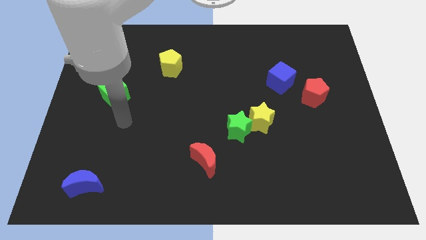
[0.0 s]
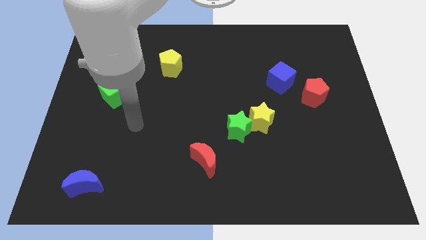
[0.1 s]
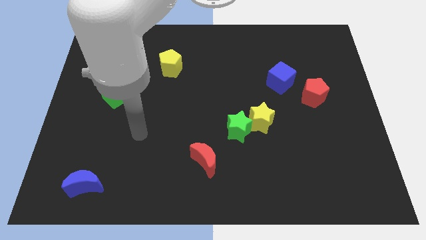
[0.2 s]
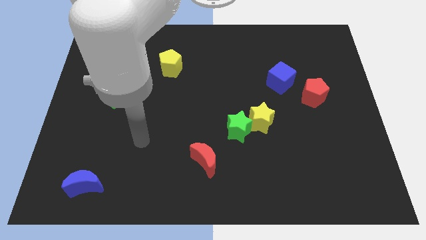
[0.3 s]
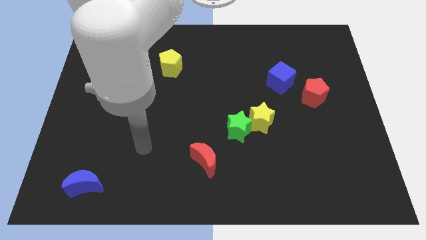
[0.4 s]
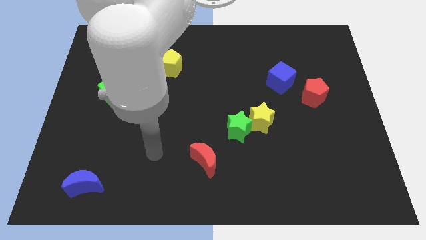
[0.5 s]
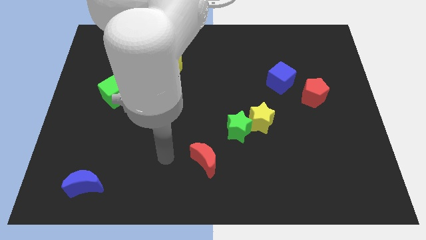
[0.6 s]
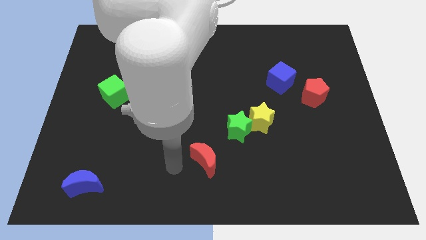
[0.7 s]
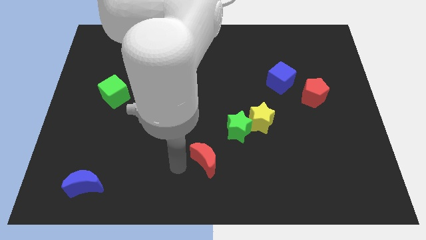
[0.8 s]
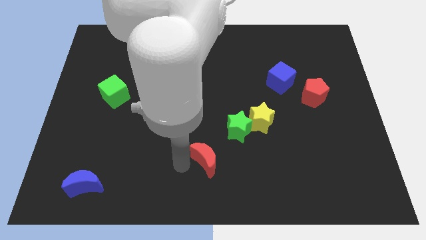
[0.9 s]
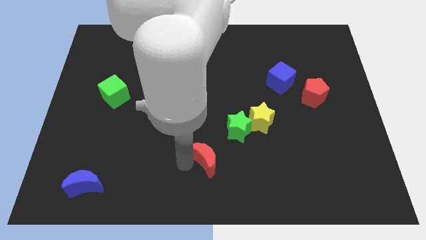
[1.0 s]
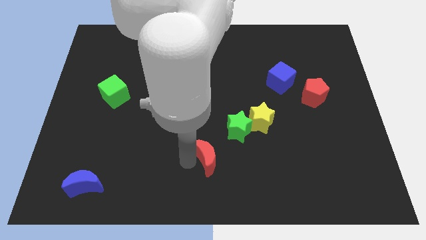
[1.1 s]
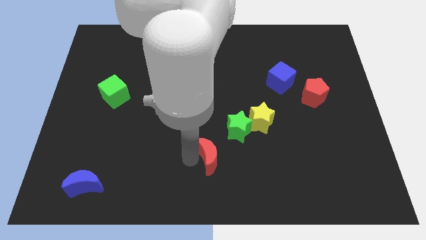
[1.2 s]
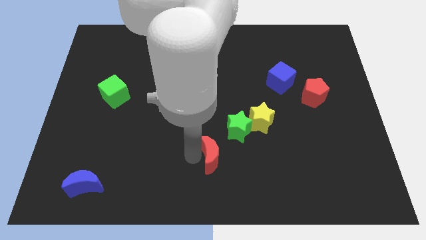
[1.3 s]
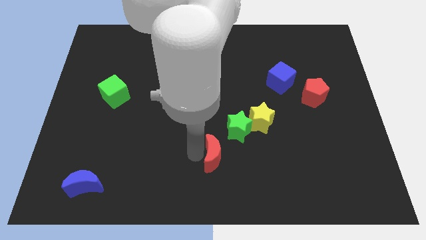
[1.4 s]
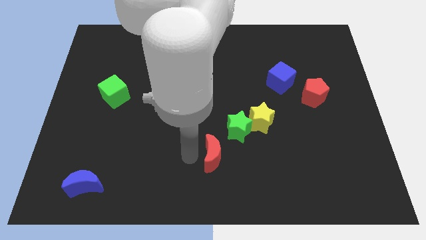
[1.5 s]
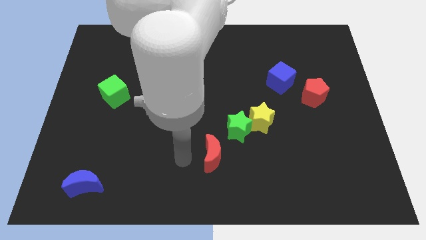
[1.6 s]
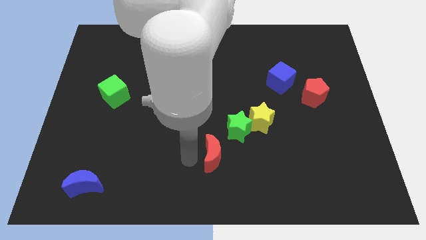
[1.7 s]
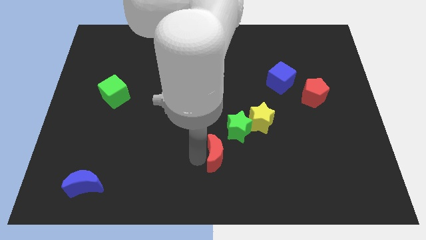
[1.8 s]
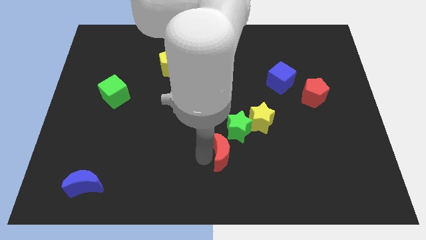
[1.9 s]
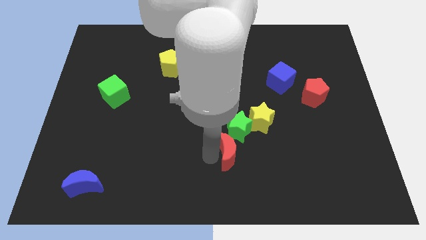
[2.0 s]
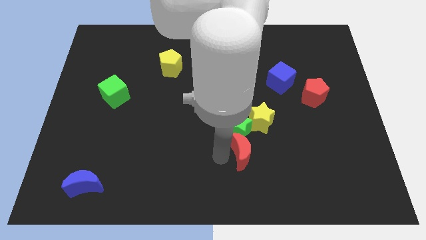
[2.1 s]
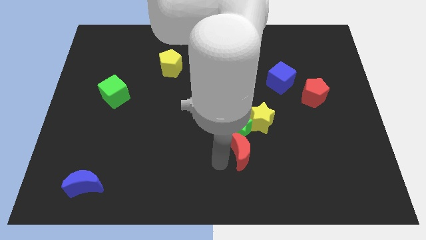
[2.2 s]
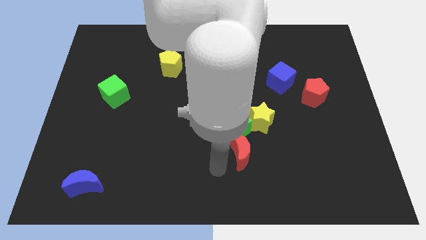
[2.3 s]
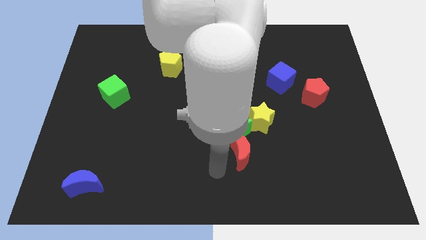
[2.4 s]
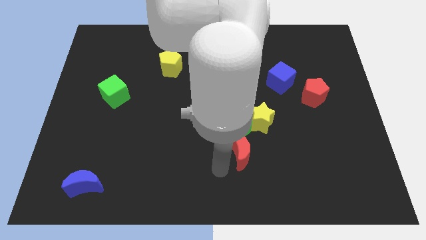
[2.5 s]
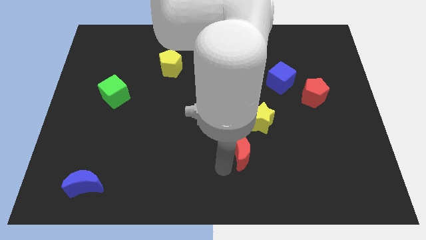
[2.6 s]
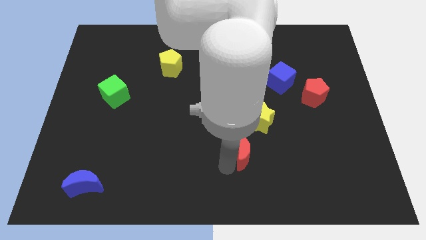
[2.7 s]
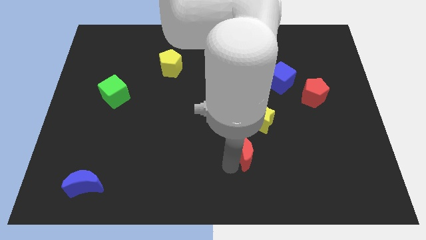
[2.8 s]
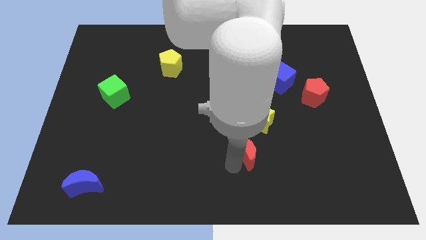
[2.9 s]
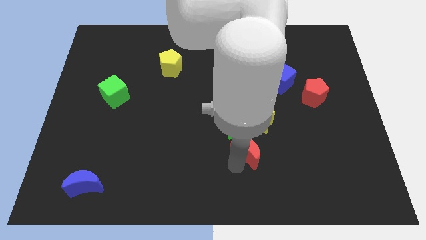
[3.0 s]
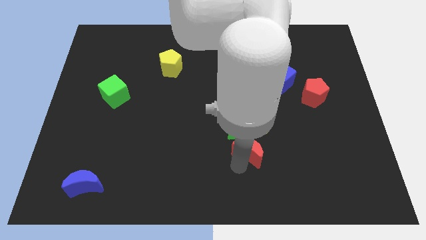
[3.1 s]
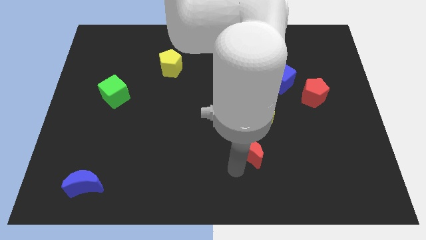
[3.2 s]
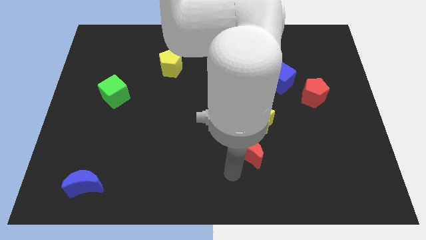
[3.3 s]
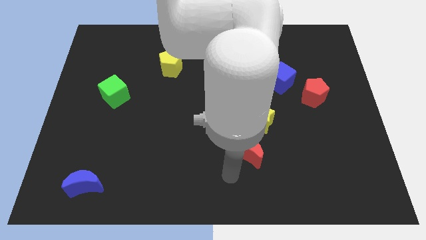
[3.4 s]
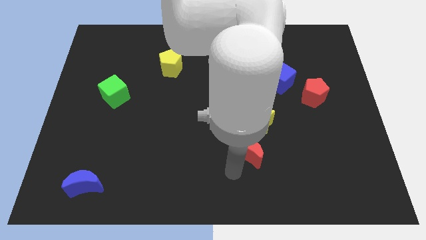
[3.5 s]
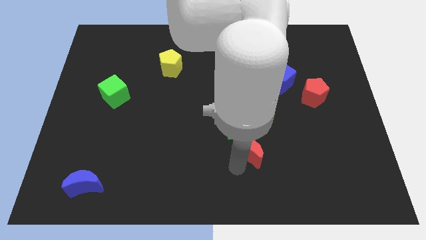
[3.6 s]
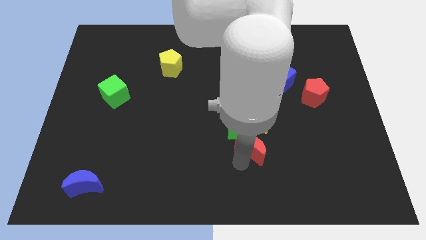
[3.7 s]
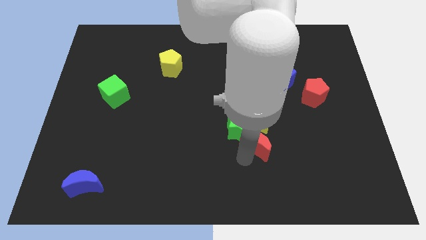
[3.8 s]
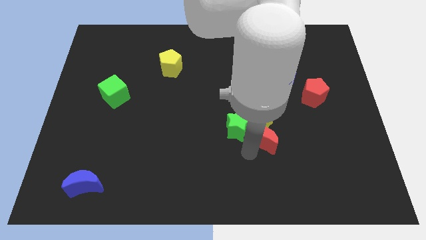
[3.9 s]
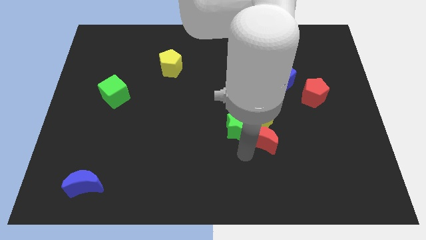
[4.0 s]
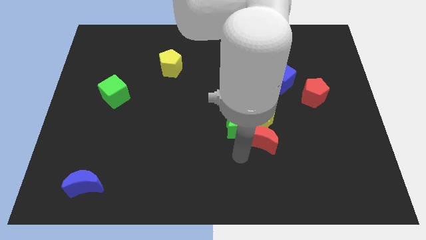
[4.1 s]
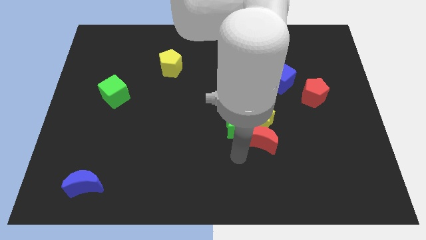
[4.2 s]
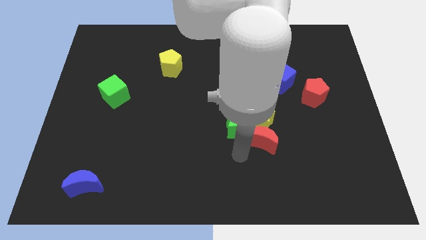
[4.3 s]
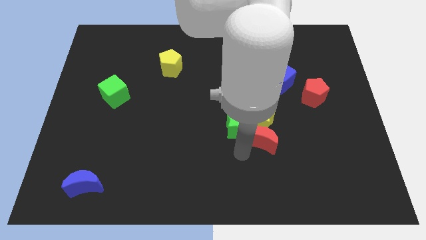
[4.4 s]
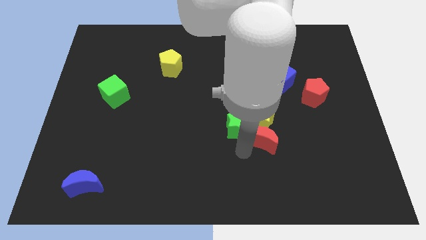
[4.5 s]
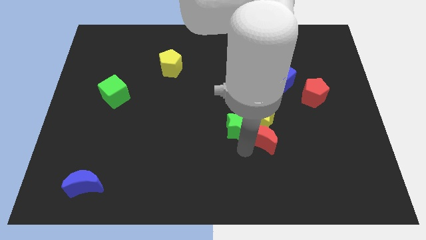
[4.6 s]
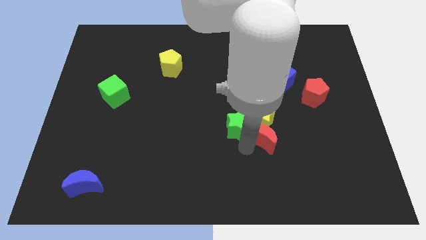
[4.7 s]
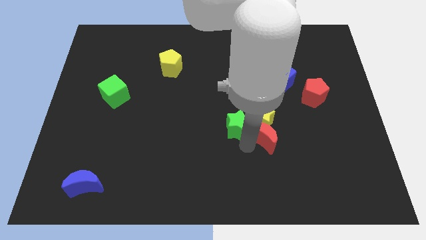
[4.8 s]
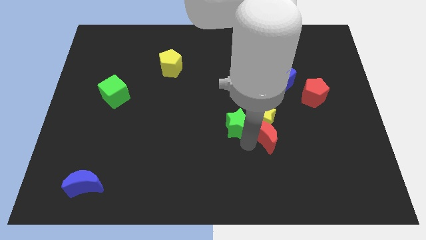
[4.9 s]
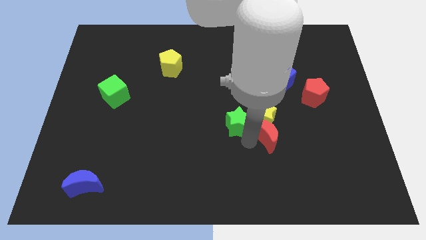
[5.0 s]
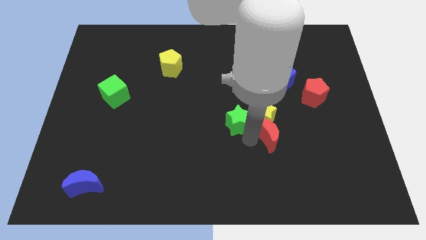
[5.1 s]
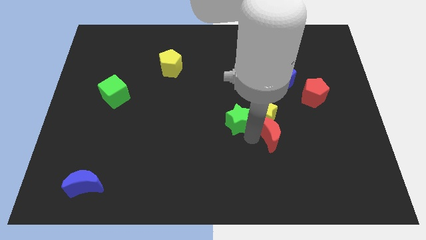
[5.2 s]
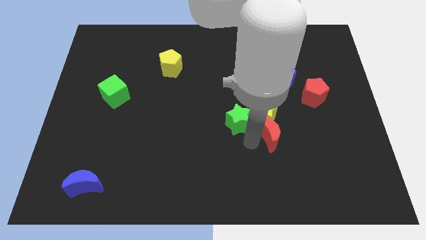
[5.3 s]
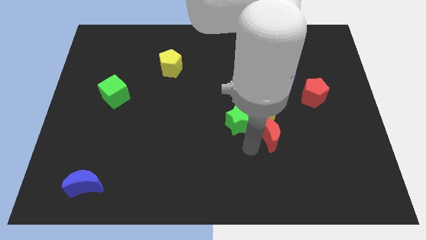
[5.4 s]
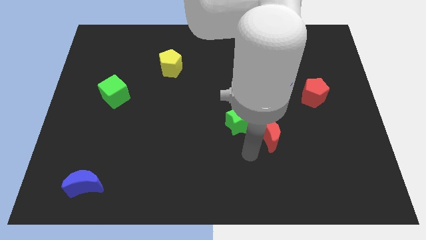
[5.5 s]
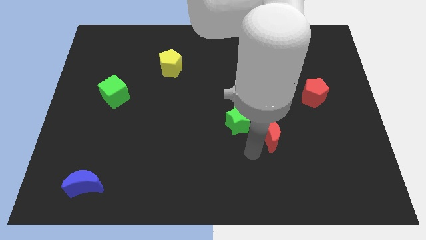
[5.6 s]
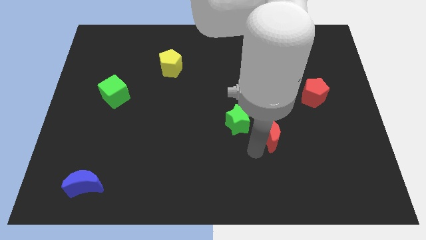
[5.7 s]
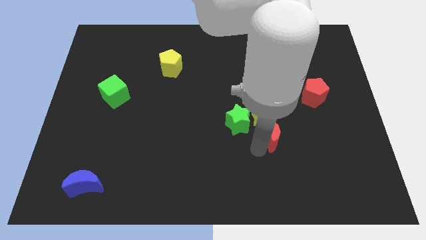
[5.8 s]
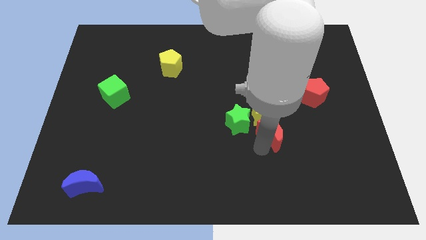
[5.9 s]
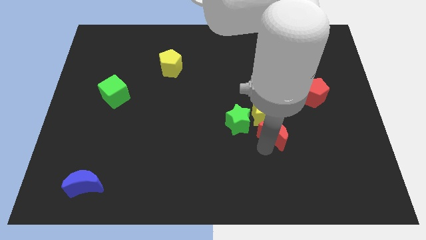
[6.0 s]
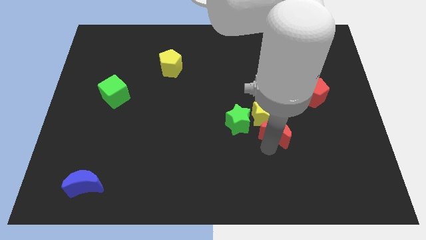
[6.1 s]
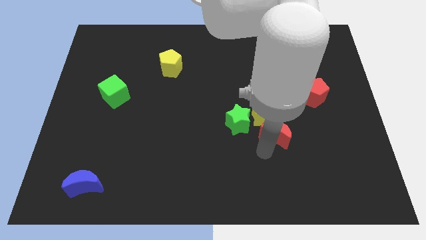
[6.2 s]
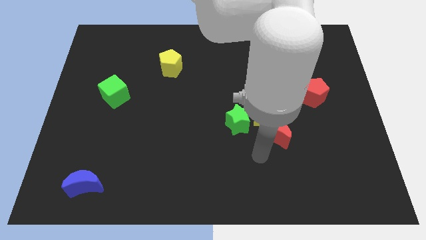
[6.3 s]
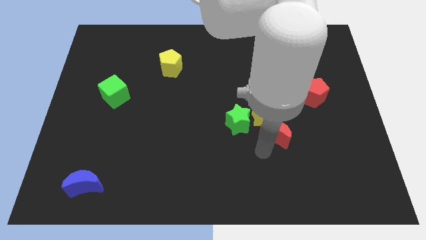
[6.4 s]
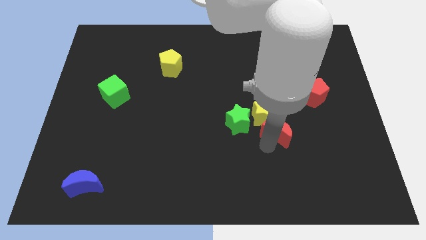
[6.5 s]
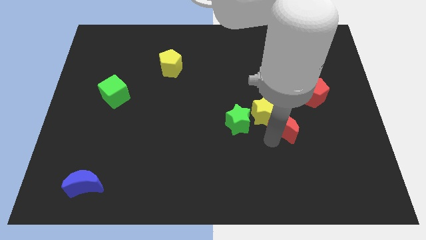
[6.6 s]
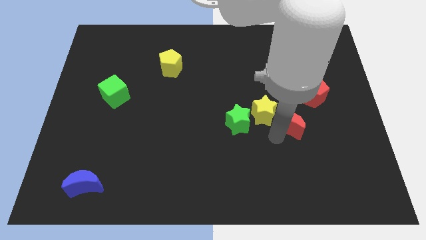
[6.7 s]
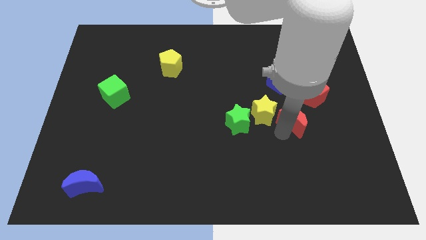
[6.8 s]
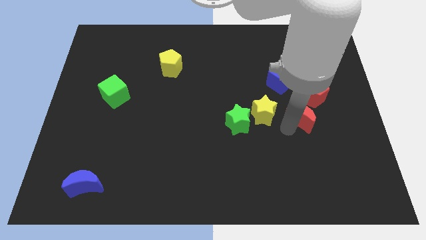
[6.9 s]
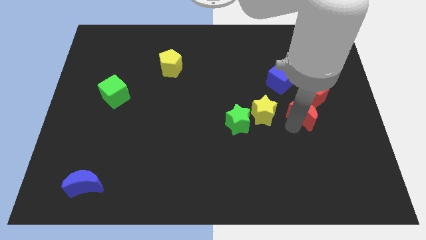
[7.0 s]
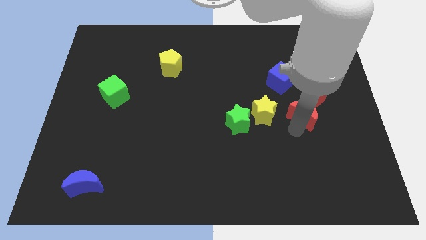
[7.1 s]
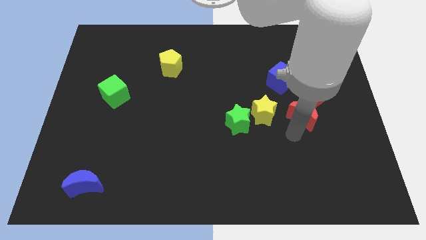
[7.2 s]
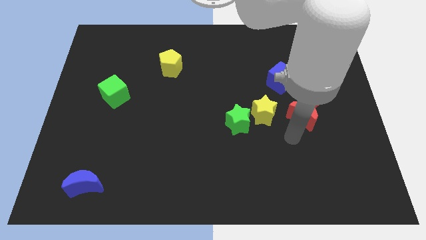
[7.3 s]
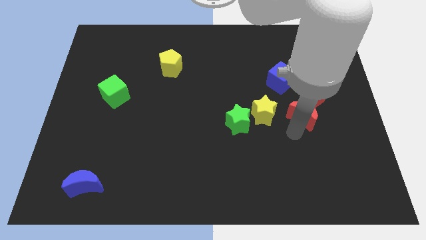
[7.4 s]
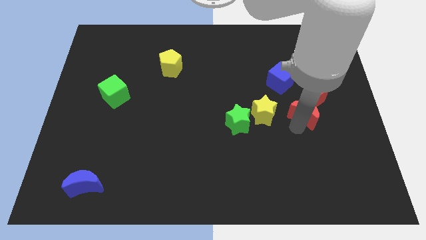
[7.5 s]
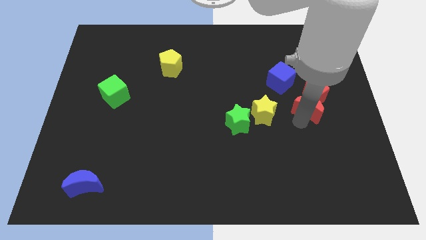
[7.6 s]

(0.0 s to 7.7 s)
put the red moon to the red pentagon
